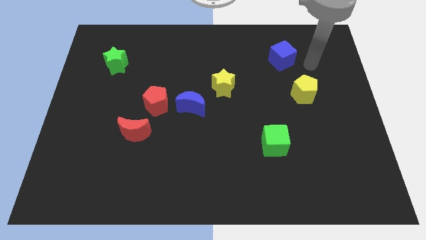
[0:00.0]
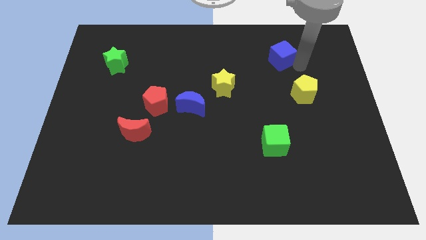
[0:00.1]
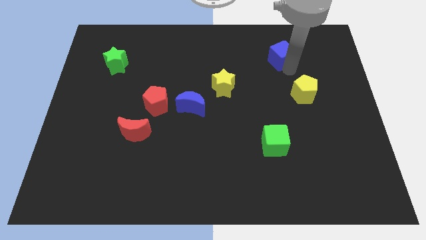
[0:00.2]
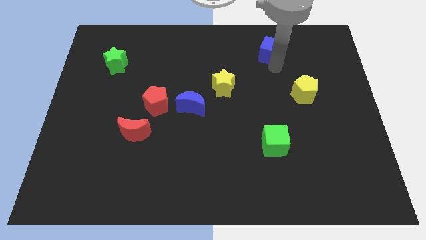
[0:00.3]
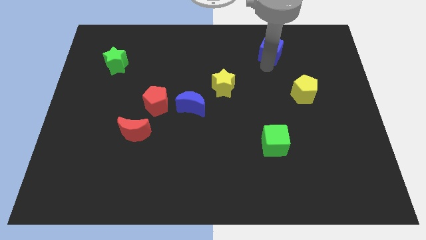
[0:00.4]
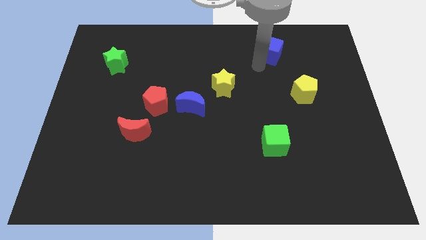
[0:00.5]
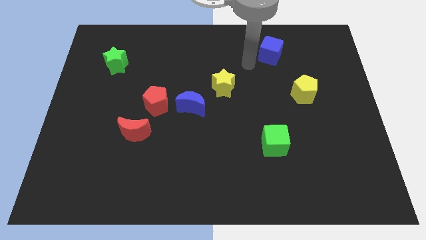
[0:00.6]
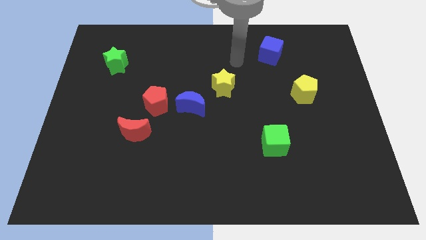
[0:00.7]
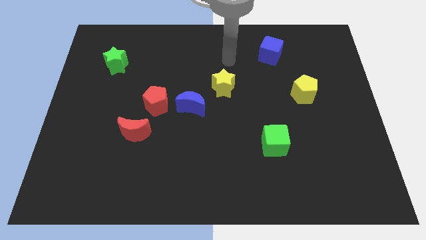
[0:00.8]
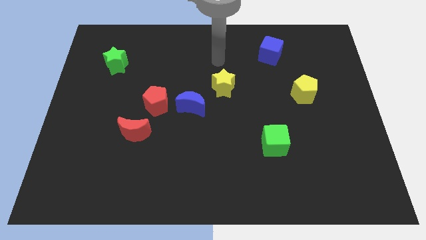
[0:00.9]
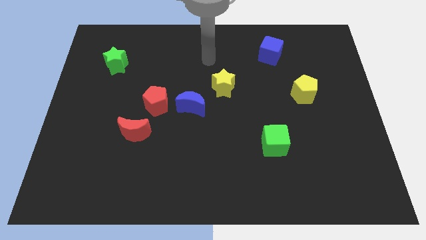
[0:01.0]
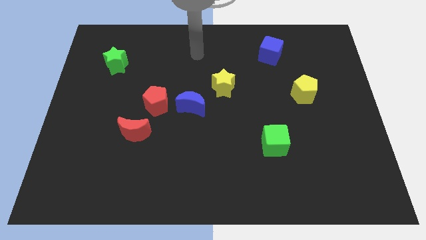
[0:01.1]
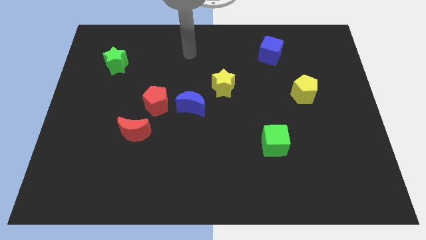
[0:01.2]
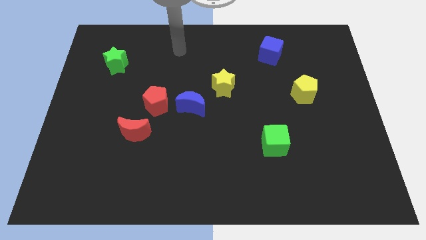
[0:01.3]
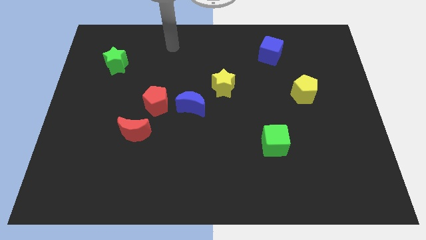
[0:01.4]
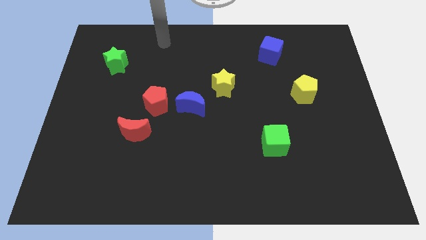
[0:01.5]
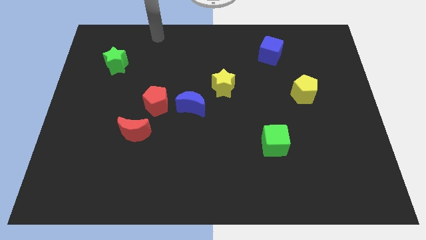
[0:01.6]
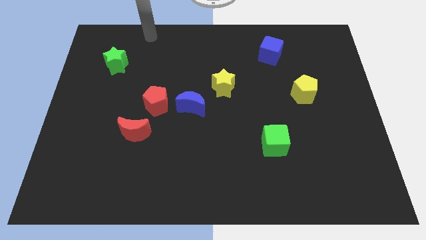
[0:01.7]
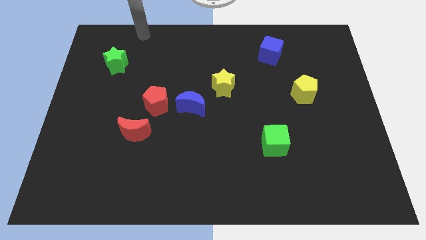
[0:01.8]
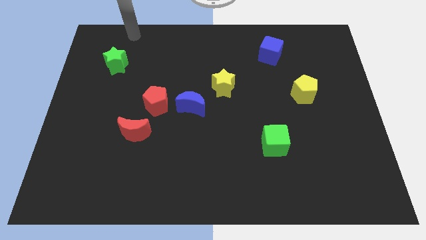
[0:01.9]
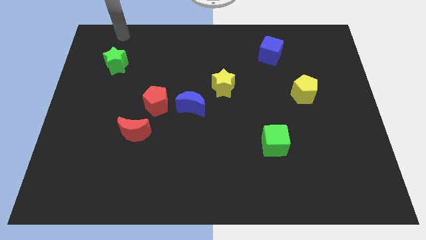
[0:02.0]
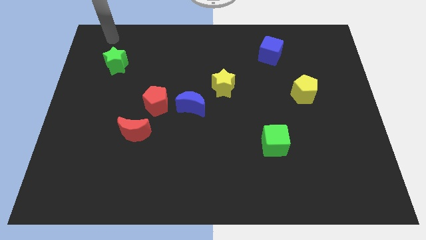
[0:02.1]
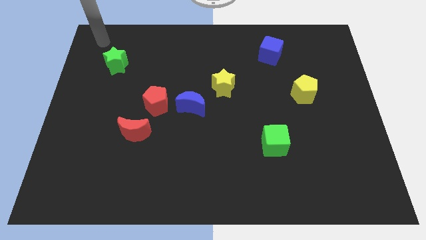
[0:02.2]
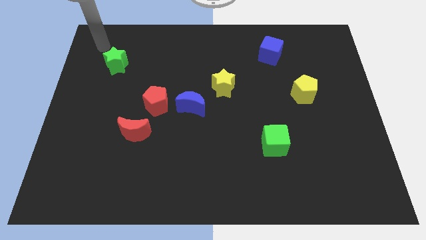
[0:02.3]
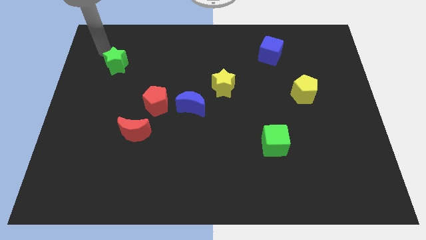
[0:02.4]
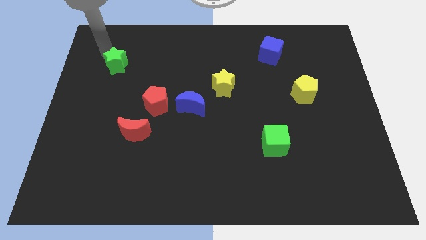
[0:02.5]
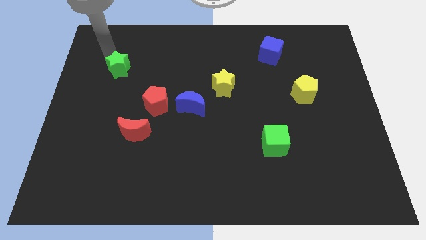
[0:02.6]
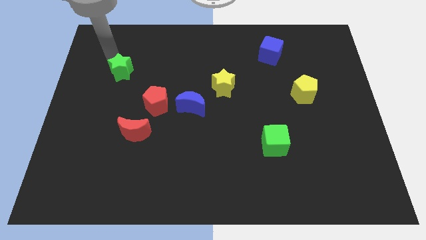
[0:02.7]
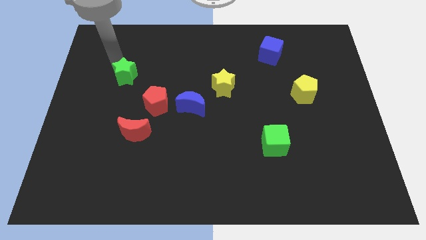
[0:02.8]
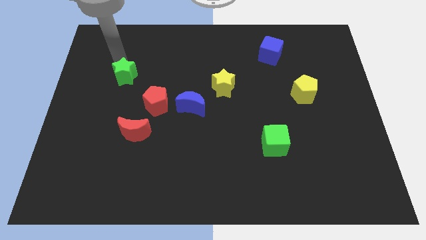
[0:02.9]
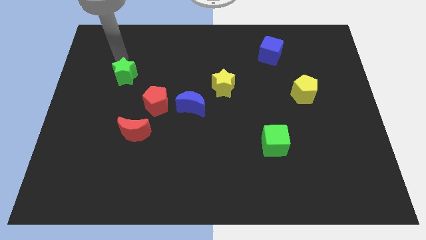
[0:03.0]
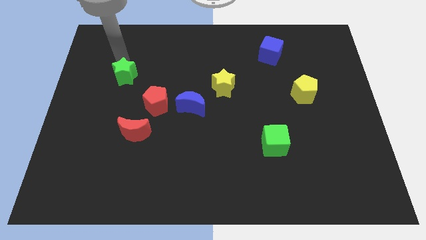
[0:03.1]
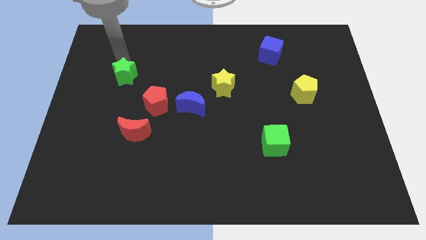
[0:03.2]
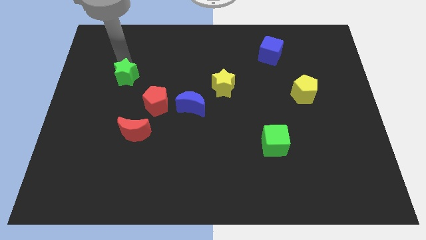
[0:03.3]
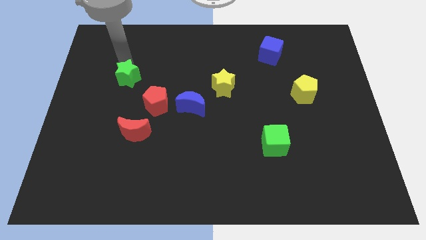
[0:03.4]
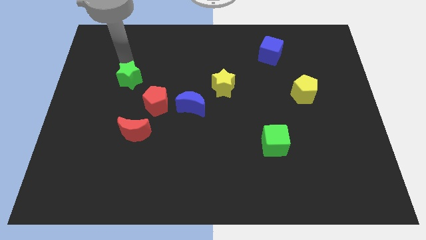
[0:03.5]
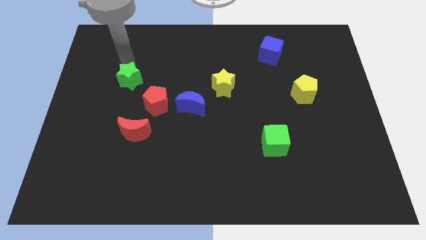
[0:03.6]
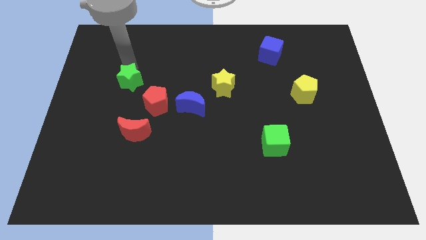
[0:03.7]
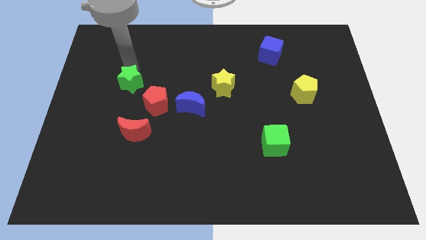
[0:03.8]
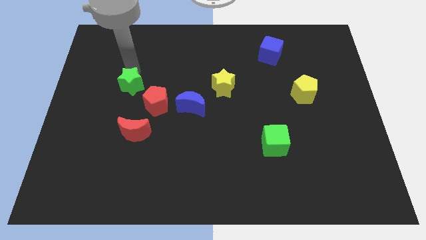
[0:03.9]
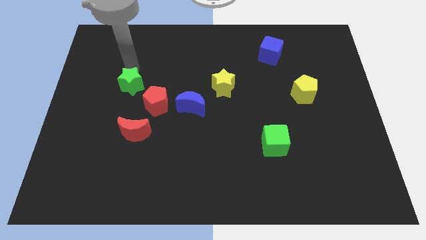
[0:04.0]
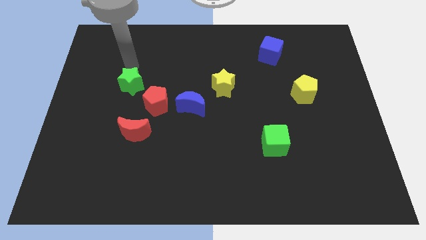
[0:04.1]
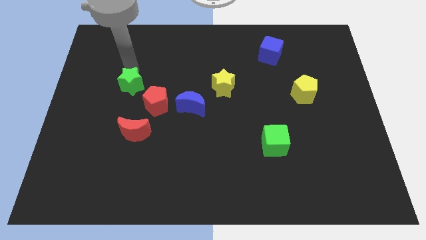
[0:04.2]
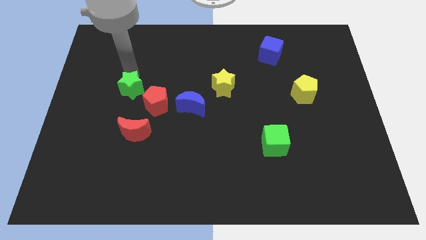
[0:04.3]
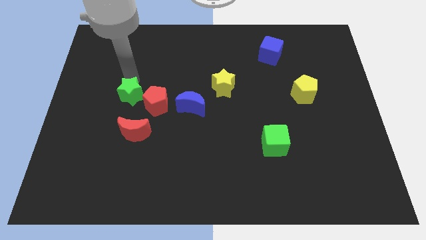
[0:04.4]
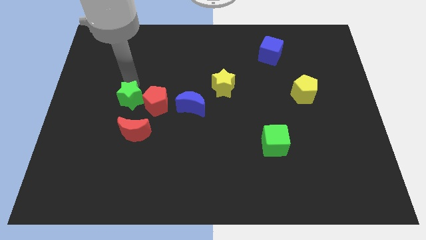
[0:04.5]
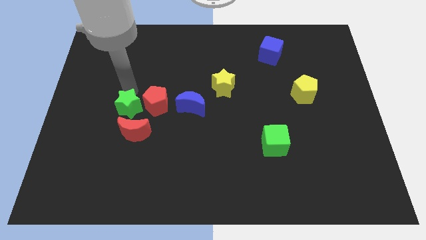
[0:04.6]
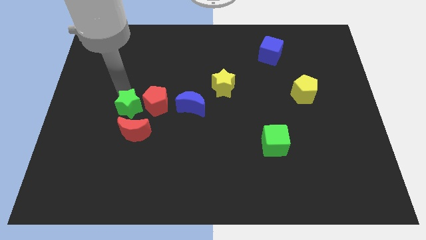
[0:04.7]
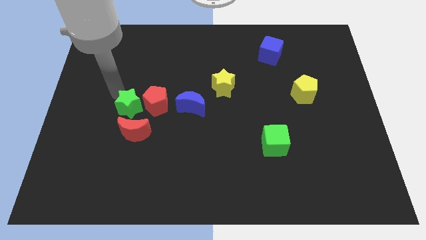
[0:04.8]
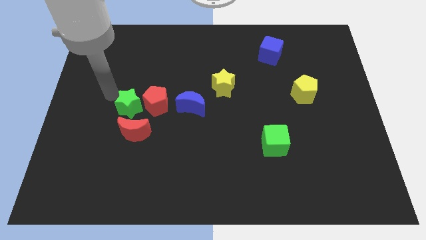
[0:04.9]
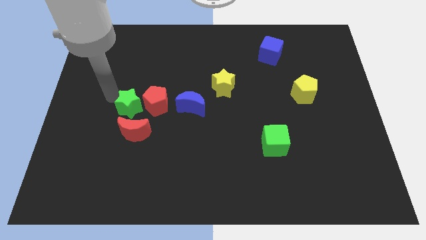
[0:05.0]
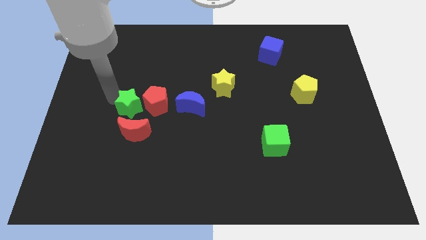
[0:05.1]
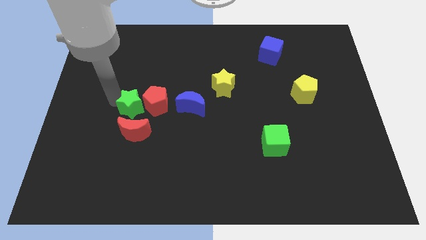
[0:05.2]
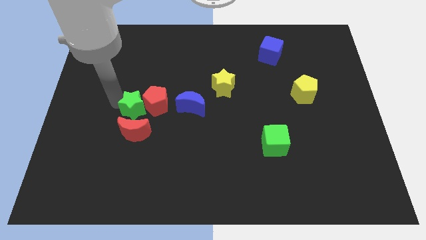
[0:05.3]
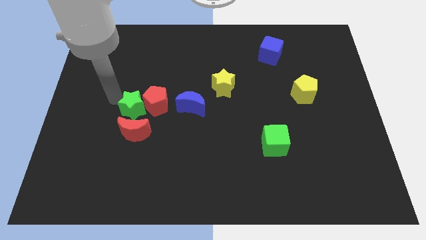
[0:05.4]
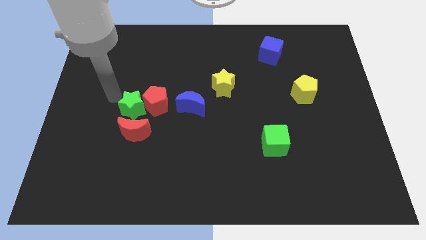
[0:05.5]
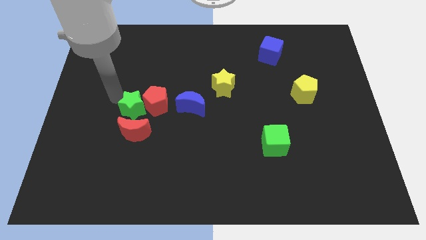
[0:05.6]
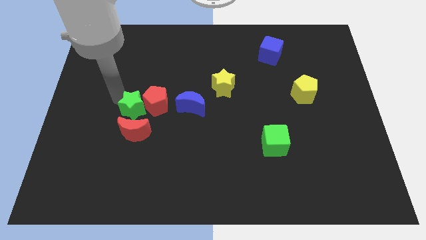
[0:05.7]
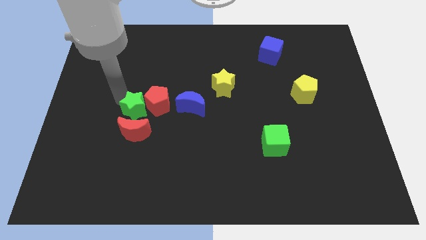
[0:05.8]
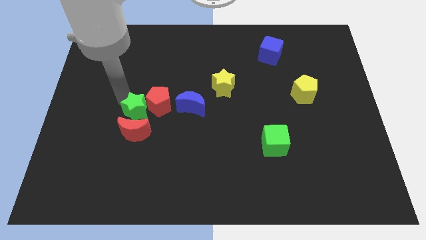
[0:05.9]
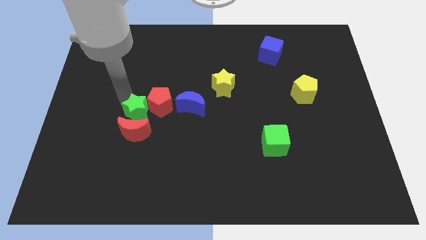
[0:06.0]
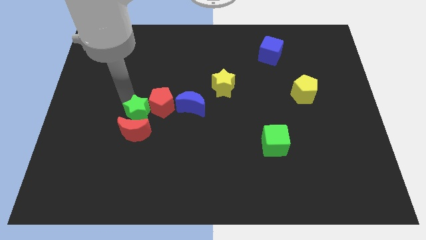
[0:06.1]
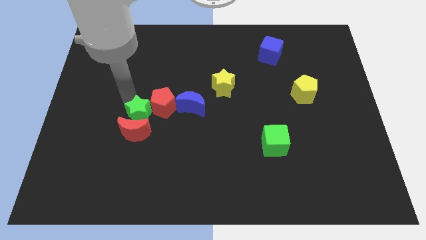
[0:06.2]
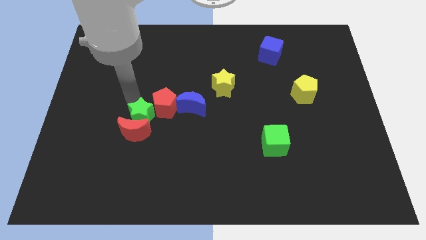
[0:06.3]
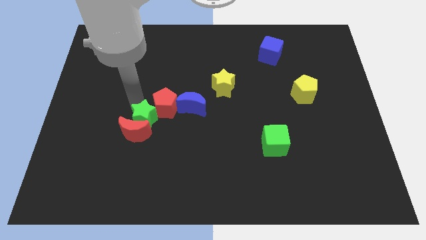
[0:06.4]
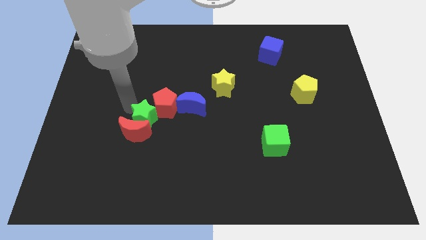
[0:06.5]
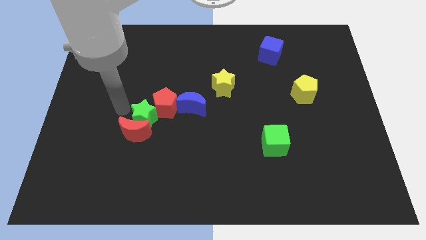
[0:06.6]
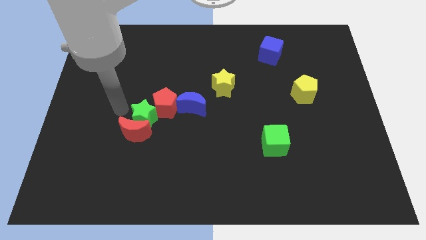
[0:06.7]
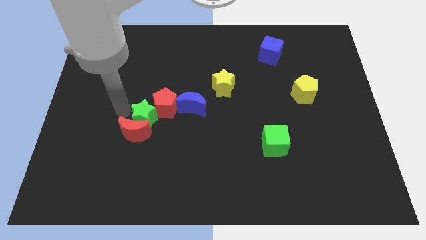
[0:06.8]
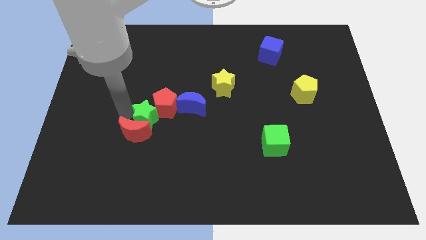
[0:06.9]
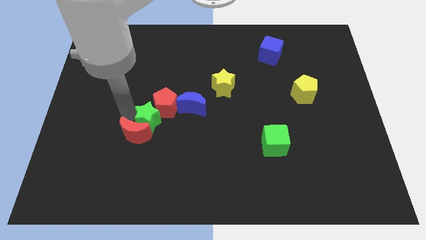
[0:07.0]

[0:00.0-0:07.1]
push the green star right of the red moon

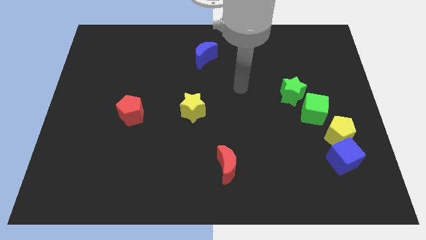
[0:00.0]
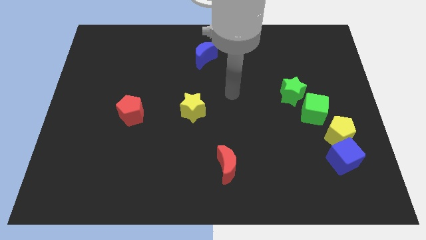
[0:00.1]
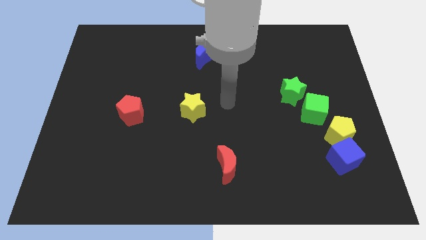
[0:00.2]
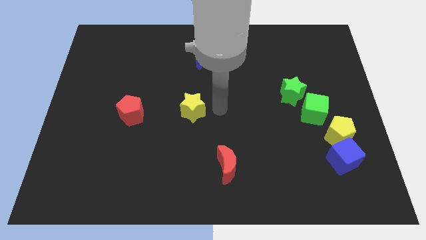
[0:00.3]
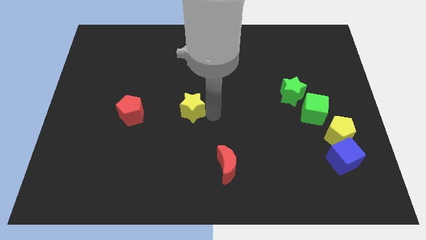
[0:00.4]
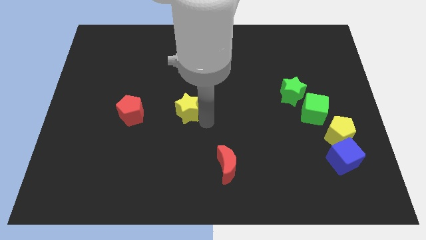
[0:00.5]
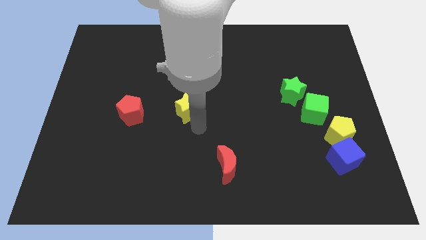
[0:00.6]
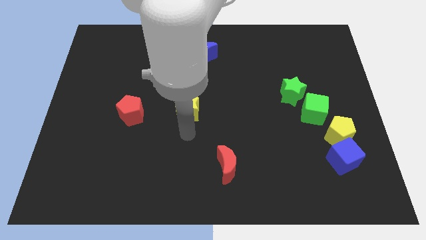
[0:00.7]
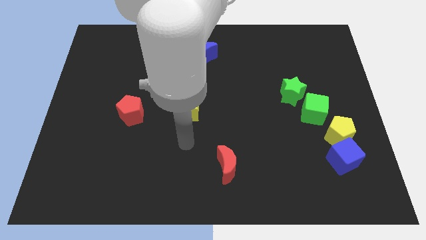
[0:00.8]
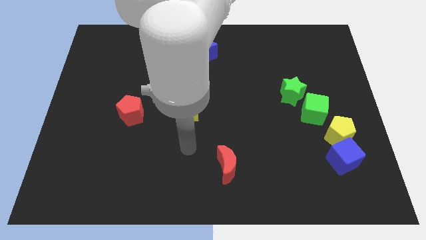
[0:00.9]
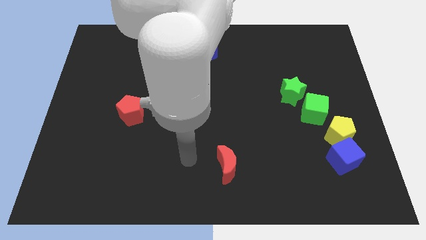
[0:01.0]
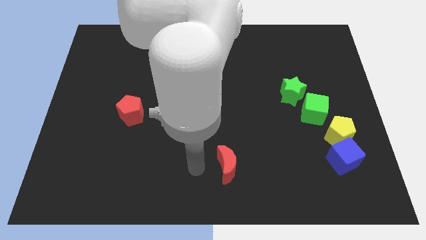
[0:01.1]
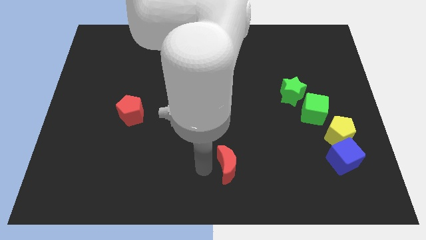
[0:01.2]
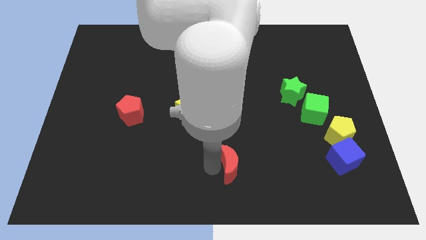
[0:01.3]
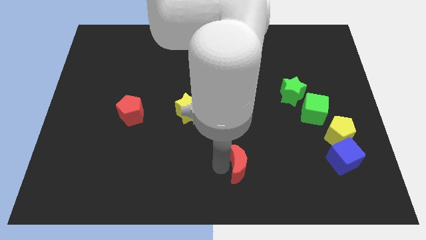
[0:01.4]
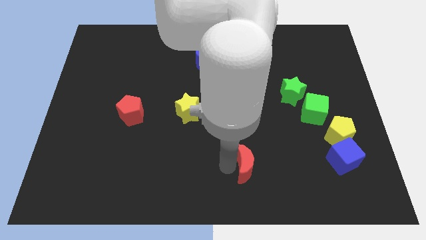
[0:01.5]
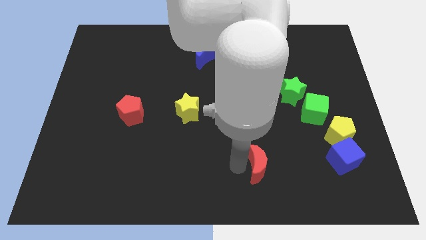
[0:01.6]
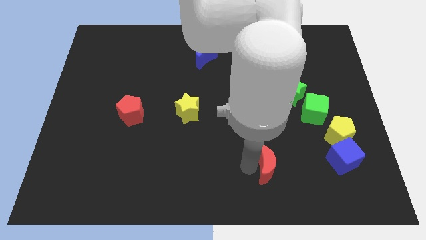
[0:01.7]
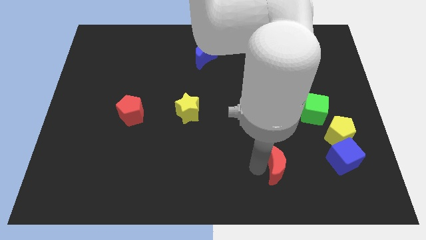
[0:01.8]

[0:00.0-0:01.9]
put the red moon to the left side of the blue cube
